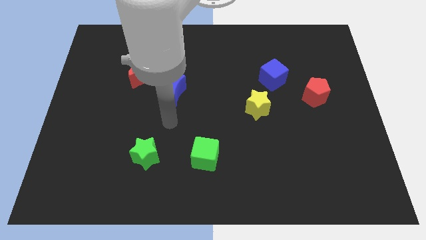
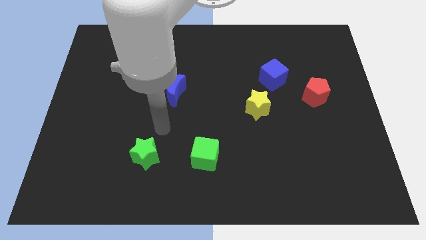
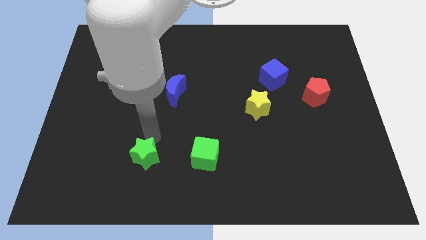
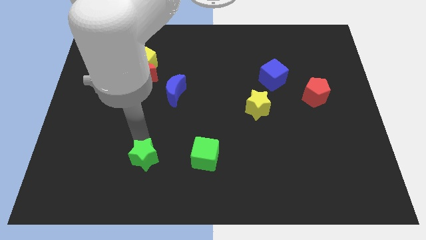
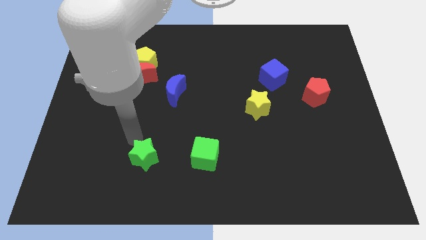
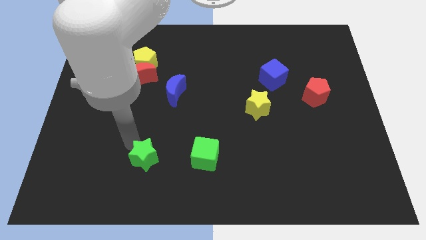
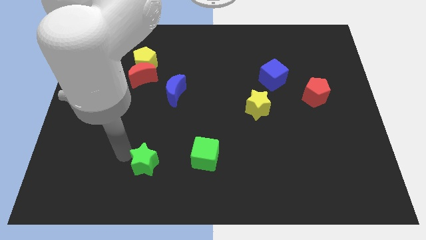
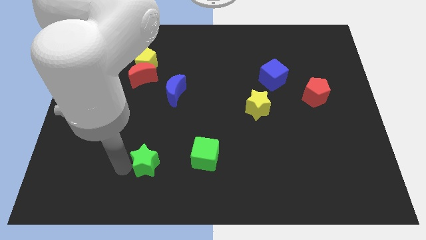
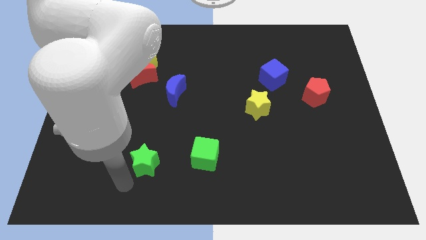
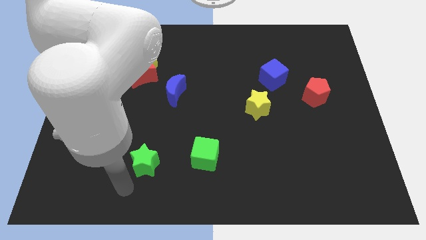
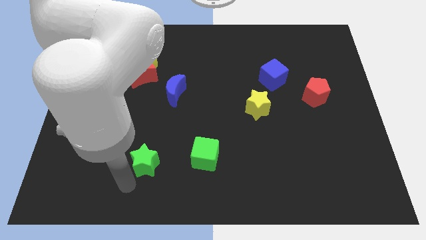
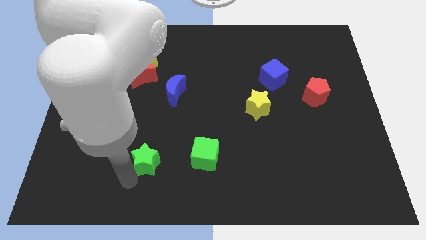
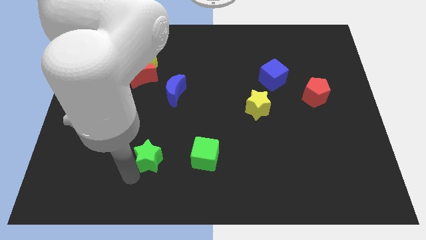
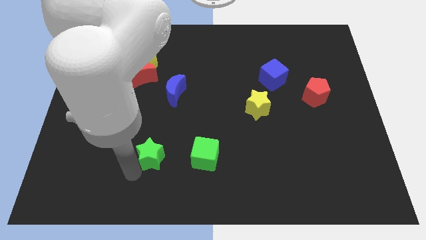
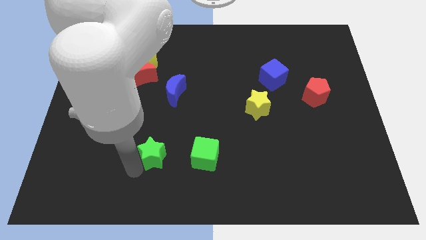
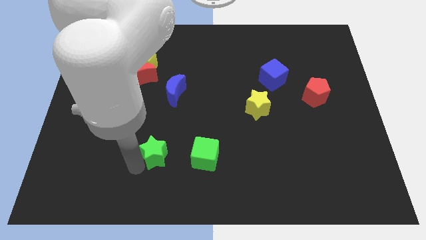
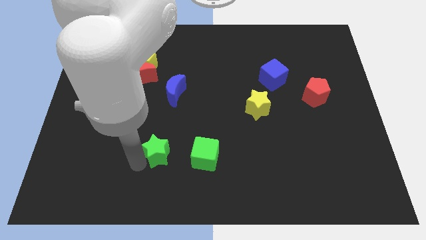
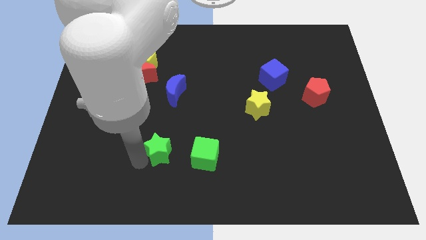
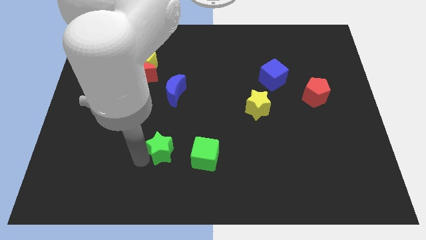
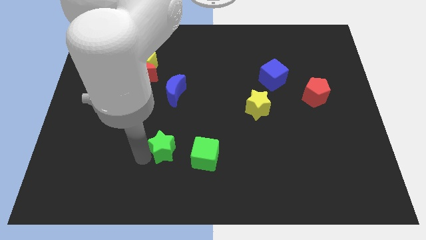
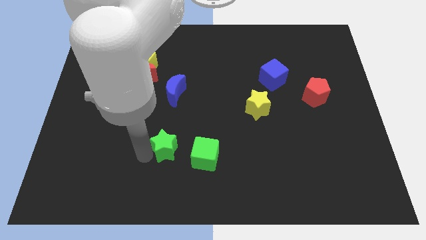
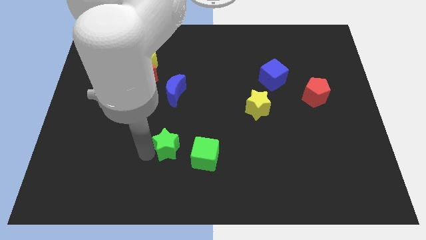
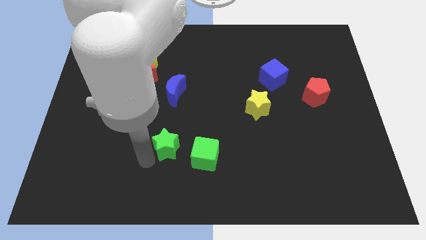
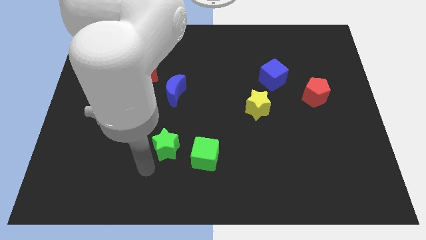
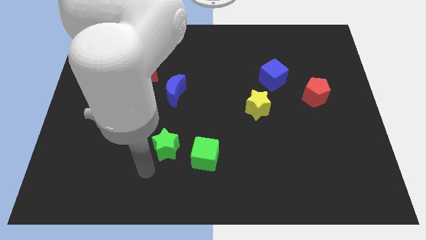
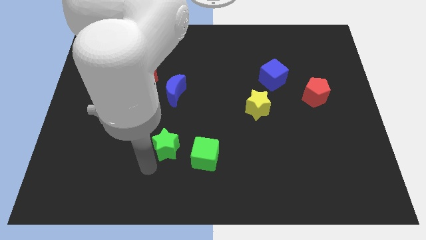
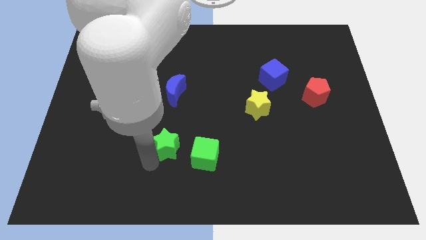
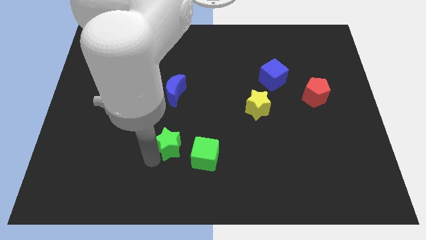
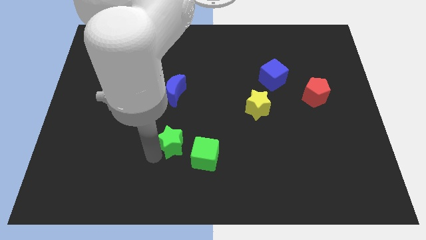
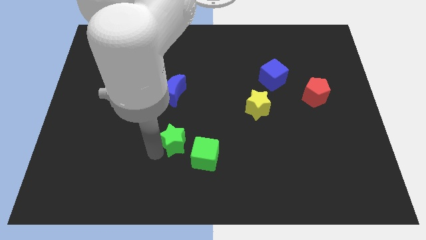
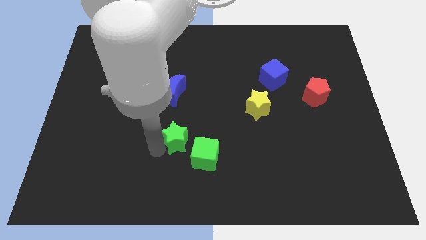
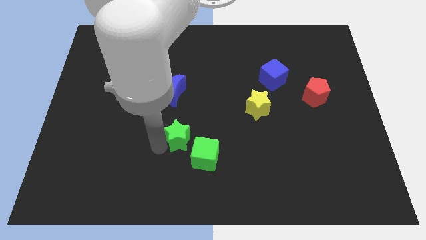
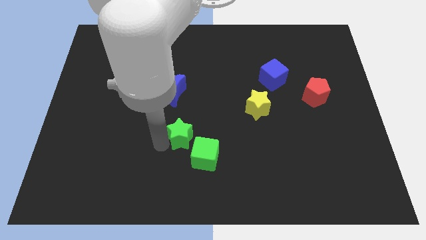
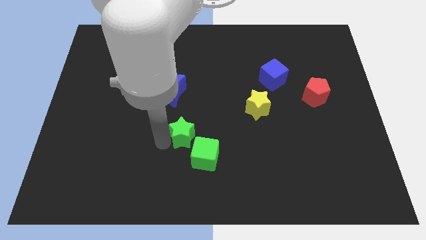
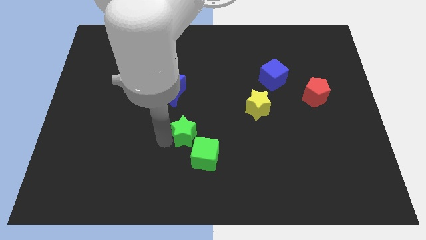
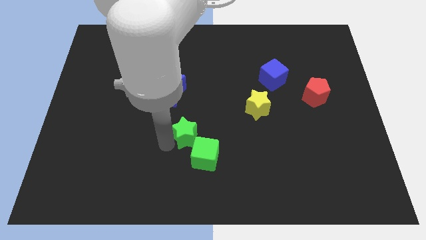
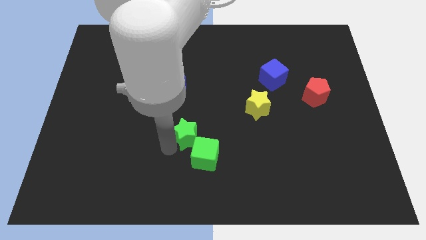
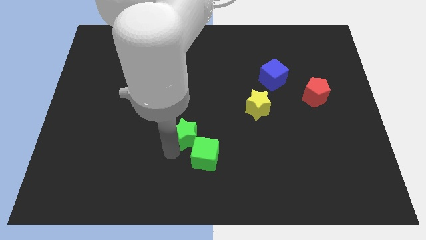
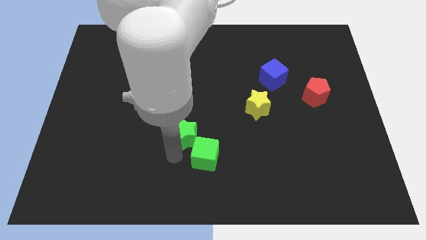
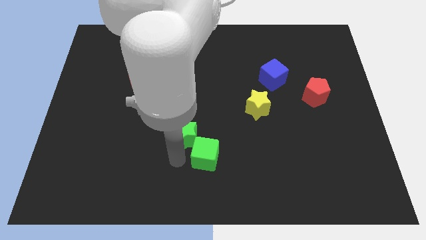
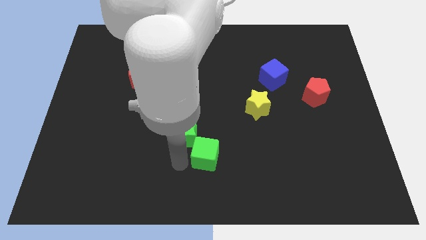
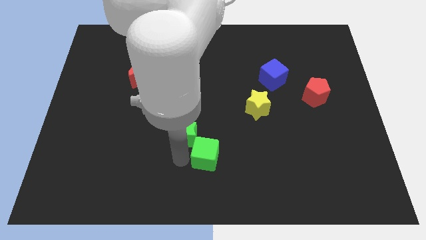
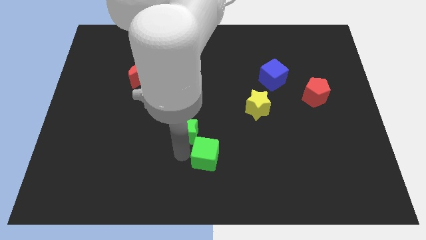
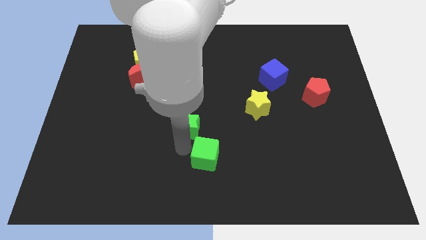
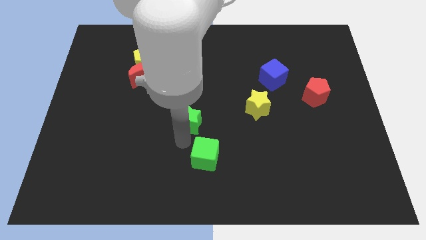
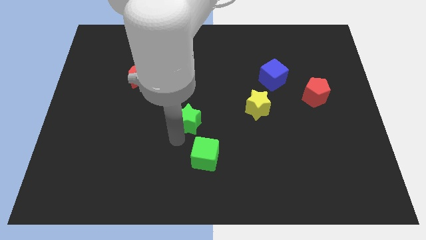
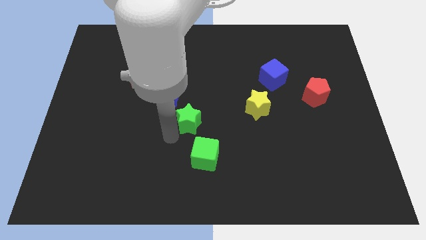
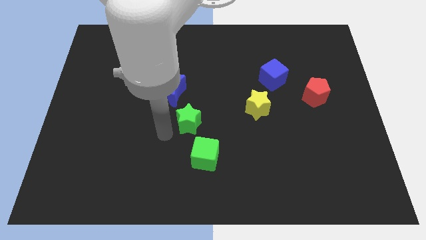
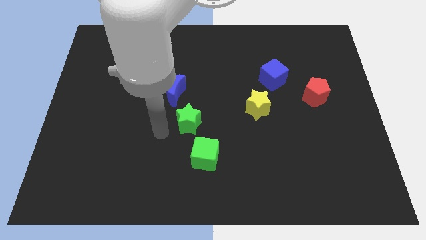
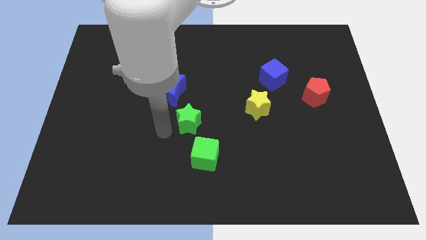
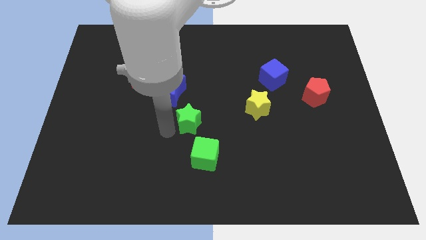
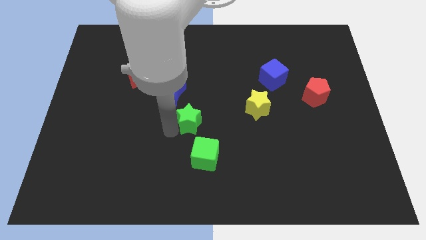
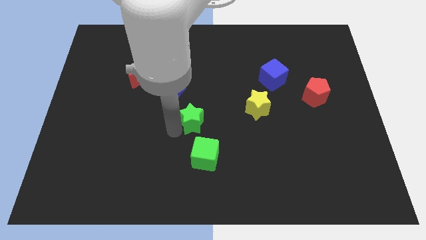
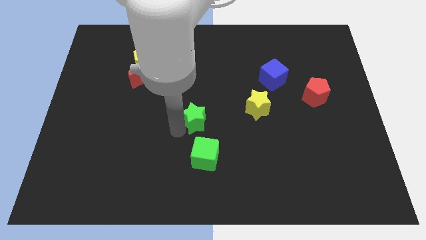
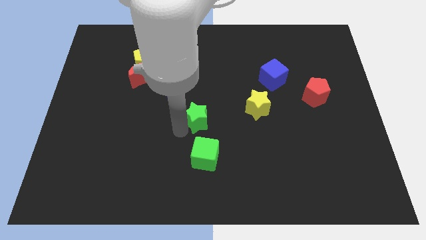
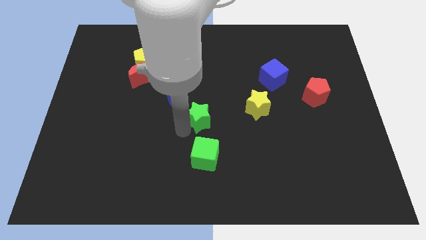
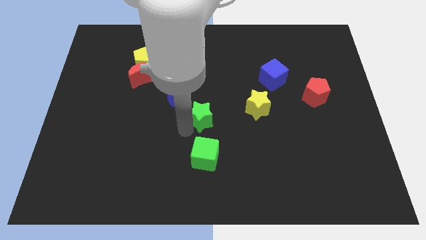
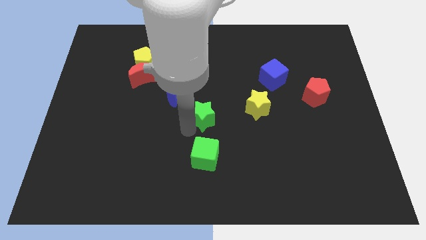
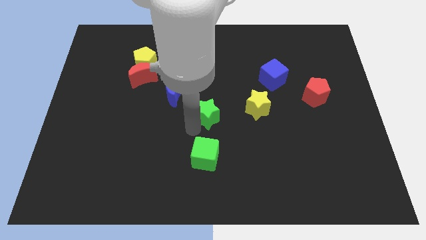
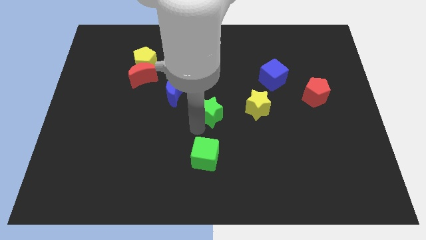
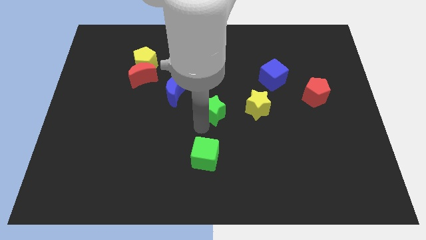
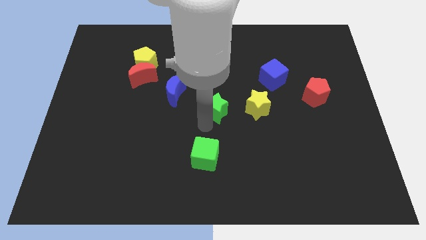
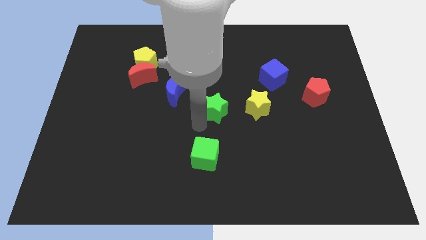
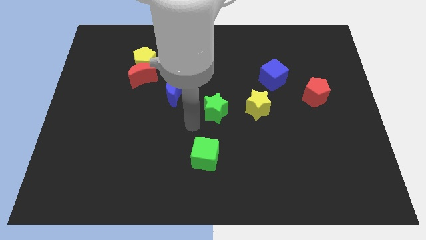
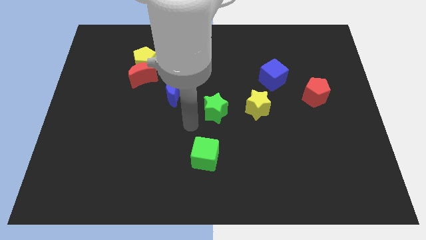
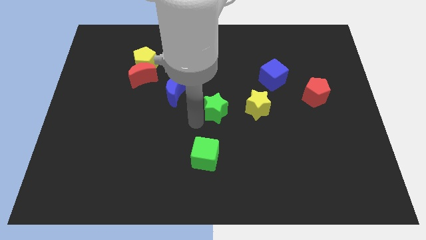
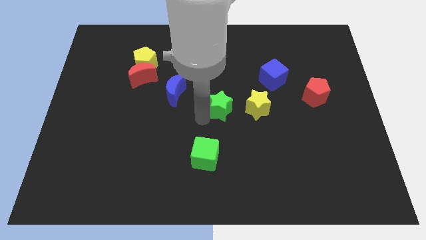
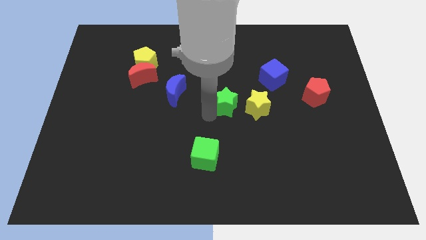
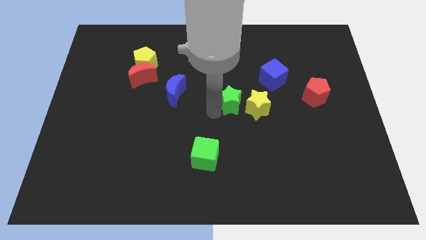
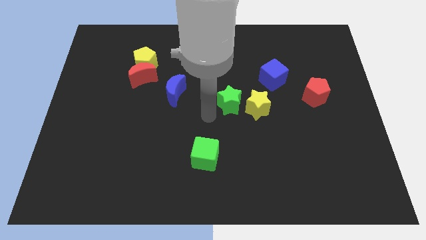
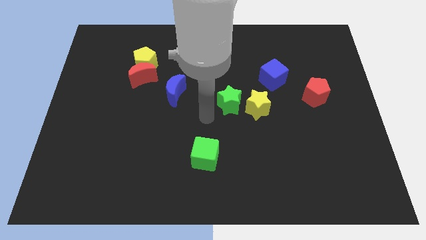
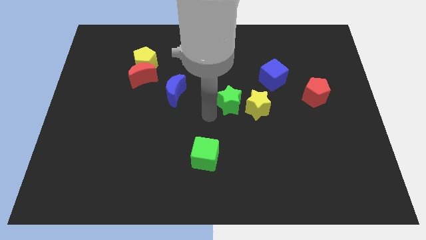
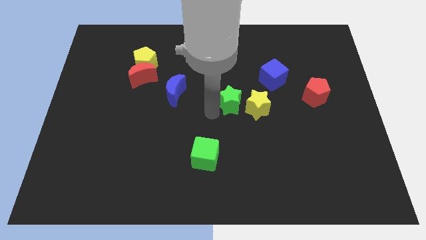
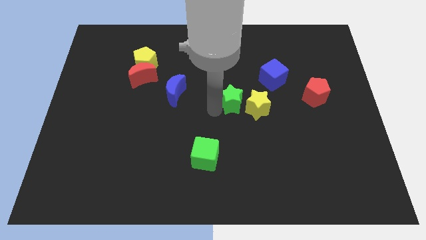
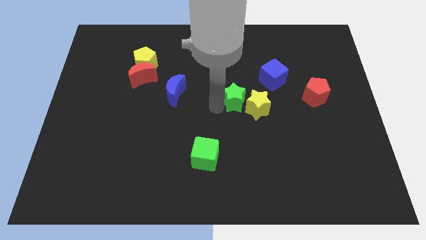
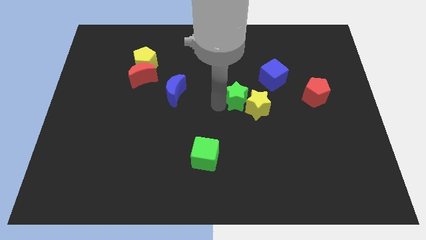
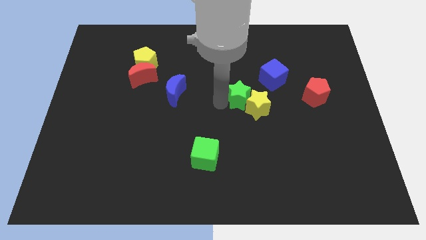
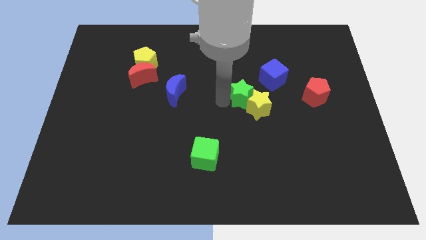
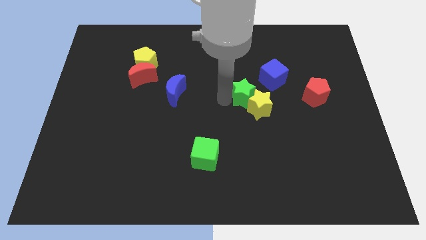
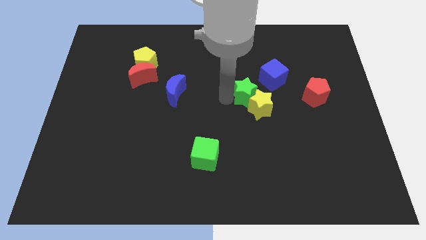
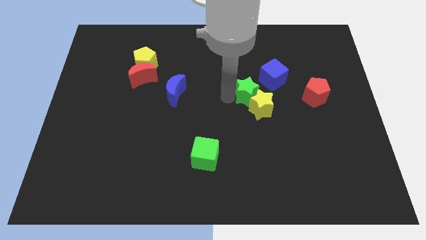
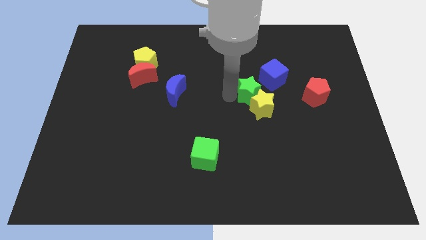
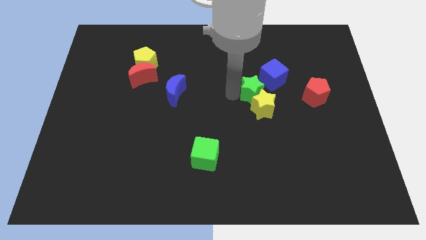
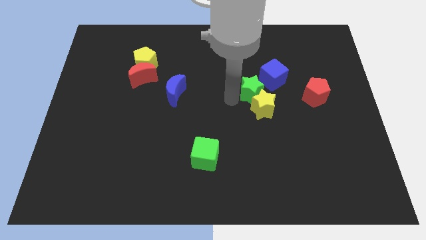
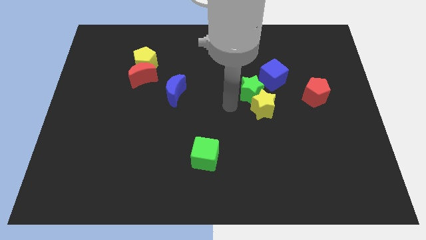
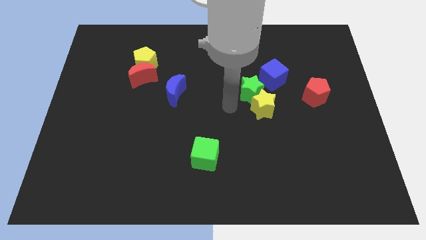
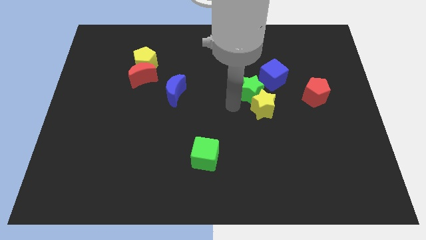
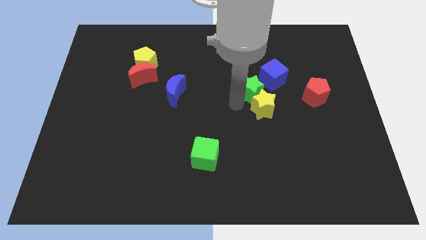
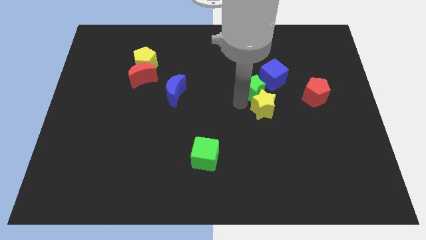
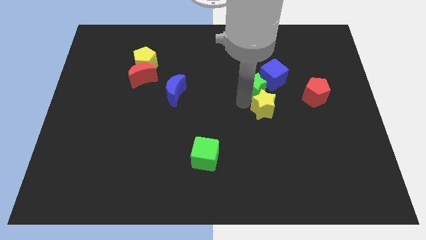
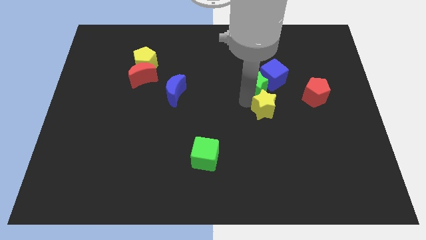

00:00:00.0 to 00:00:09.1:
put the green star to the blue cube
